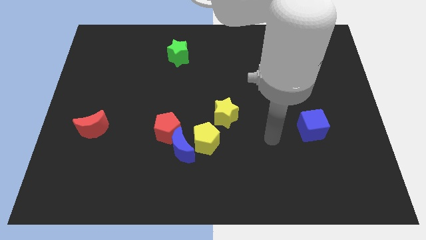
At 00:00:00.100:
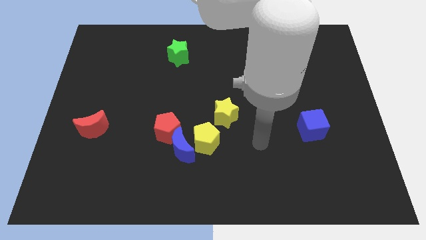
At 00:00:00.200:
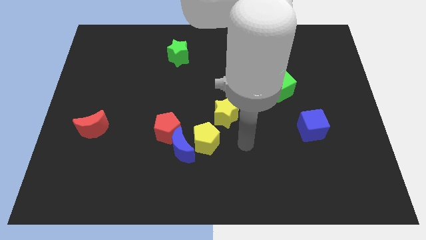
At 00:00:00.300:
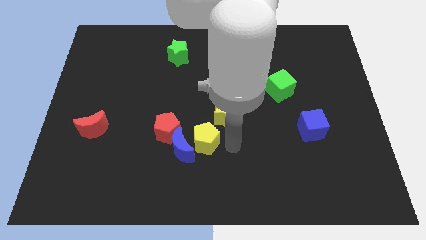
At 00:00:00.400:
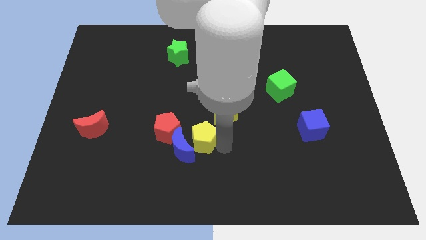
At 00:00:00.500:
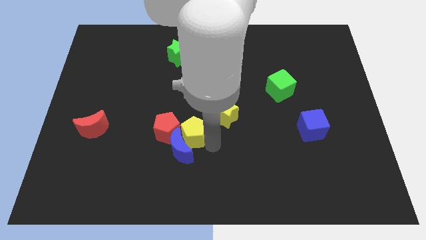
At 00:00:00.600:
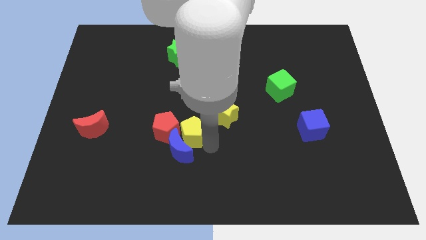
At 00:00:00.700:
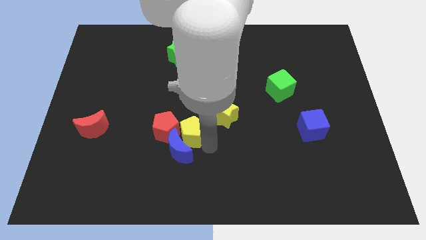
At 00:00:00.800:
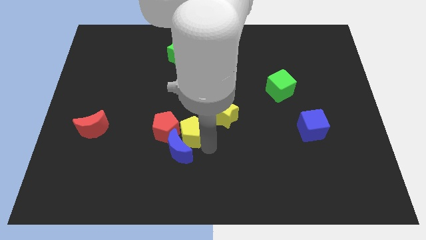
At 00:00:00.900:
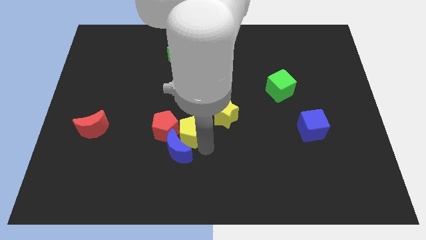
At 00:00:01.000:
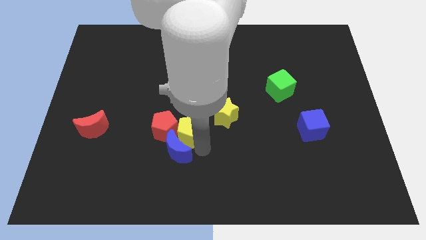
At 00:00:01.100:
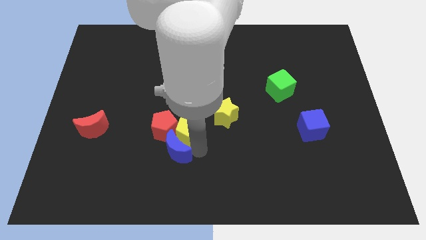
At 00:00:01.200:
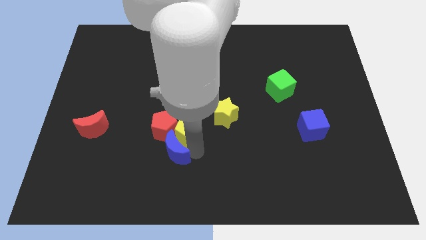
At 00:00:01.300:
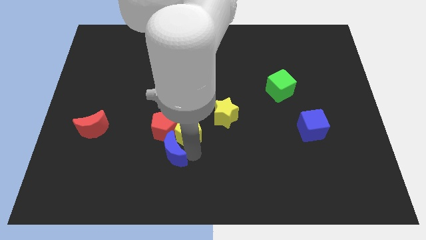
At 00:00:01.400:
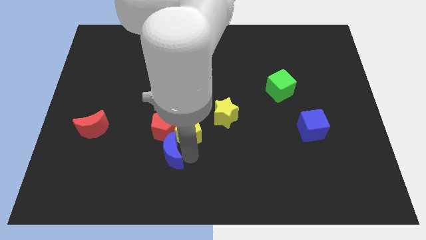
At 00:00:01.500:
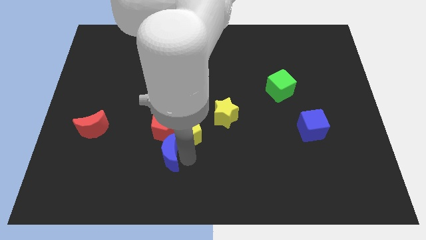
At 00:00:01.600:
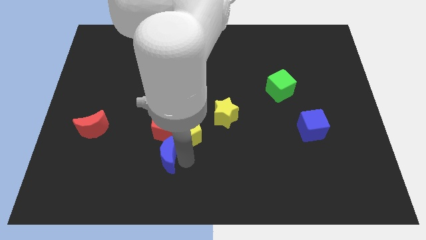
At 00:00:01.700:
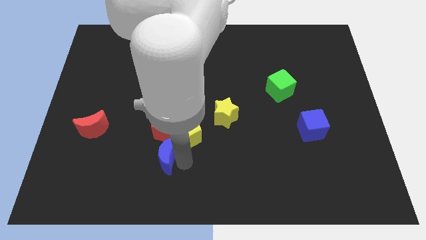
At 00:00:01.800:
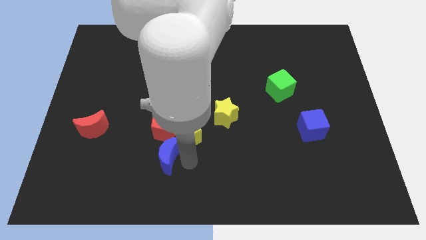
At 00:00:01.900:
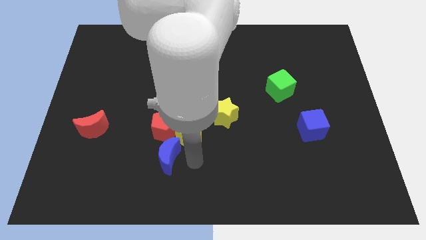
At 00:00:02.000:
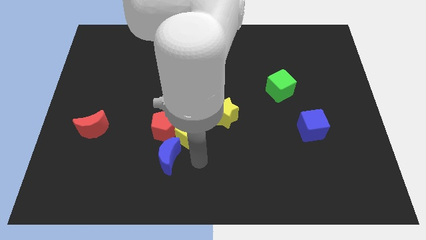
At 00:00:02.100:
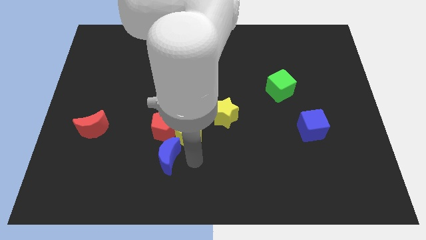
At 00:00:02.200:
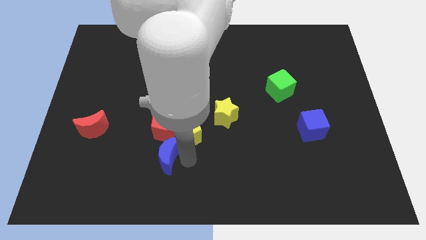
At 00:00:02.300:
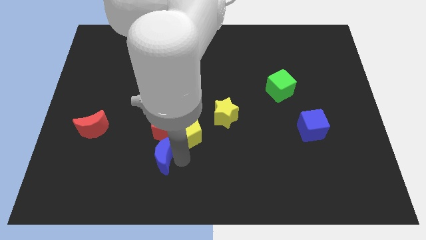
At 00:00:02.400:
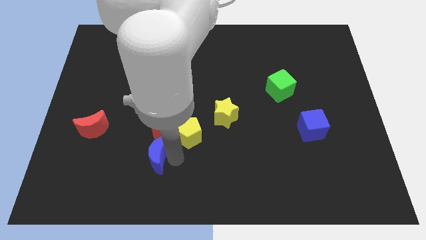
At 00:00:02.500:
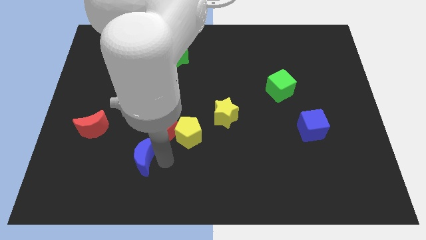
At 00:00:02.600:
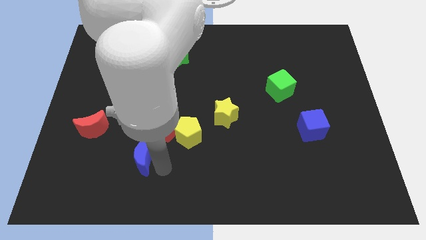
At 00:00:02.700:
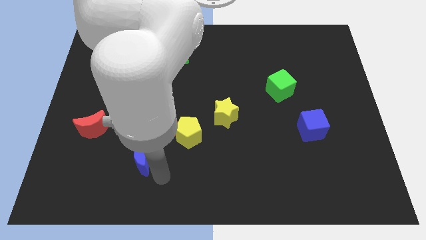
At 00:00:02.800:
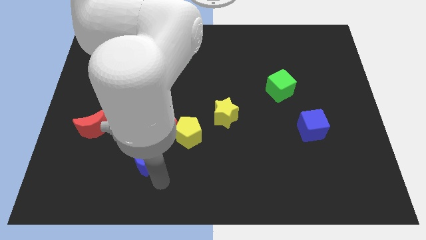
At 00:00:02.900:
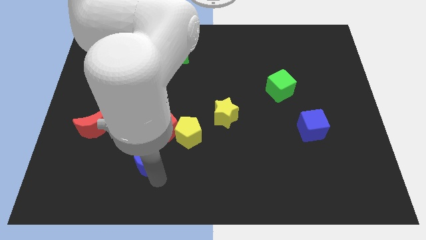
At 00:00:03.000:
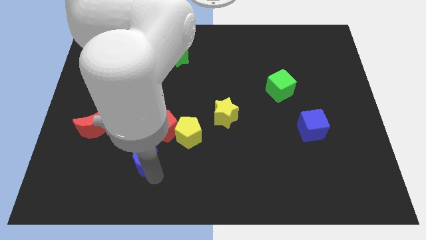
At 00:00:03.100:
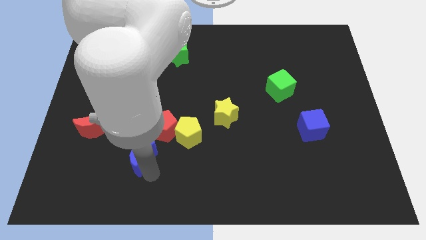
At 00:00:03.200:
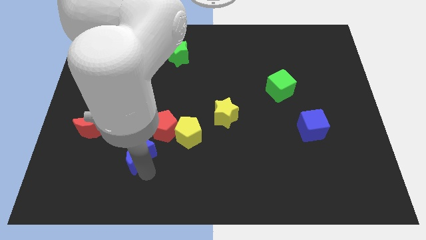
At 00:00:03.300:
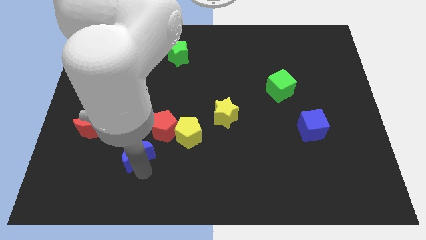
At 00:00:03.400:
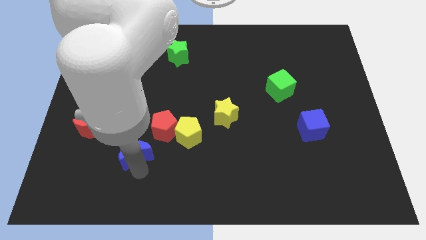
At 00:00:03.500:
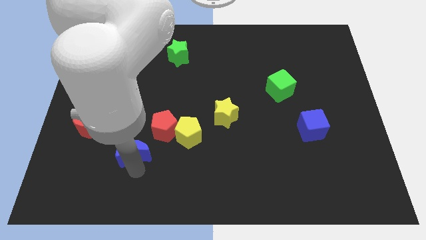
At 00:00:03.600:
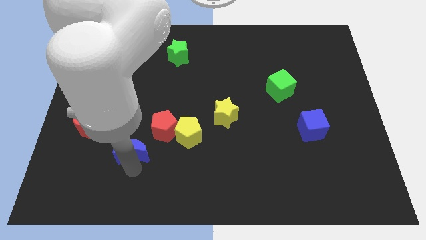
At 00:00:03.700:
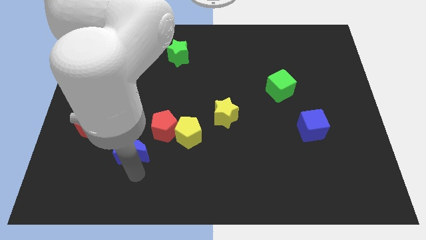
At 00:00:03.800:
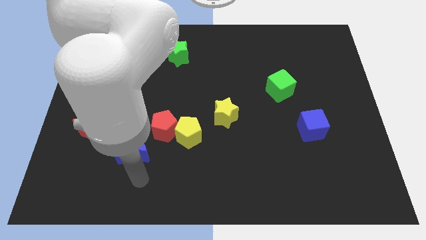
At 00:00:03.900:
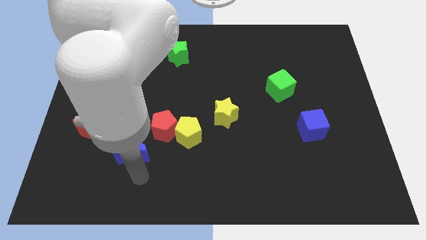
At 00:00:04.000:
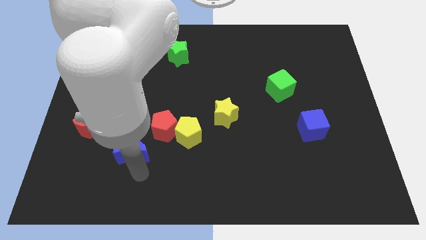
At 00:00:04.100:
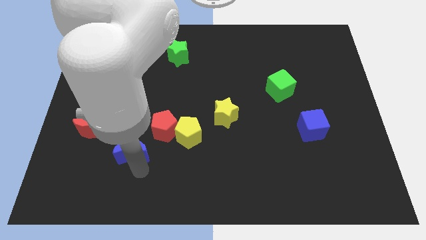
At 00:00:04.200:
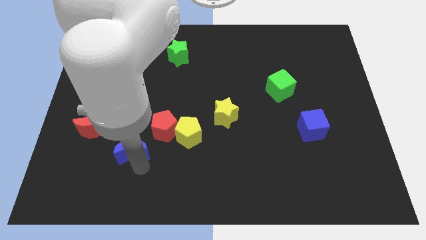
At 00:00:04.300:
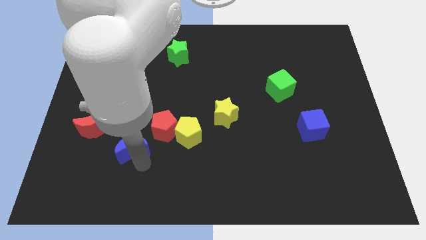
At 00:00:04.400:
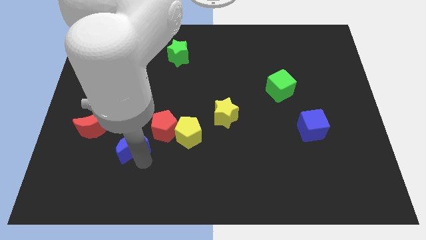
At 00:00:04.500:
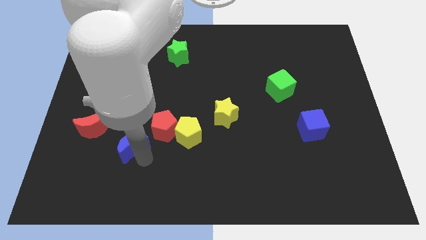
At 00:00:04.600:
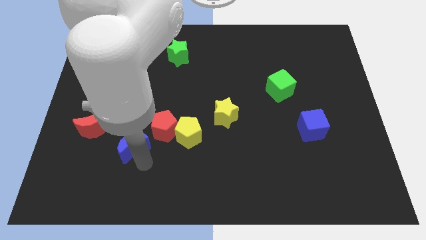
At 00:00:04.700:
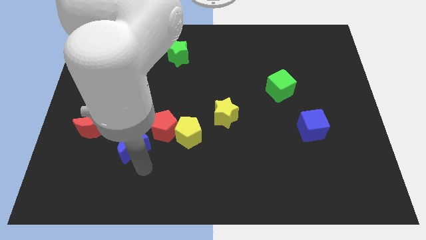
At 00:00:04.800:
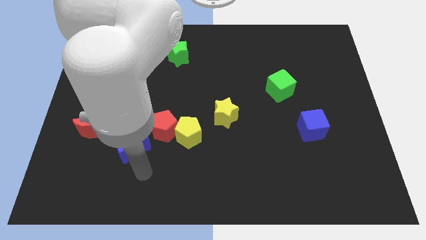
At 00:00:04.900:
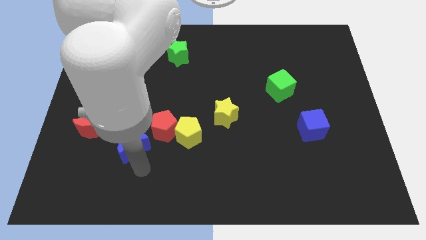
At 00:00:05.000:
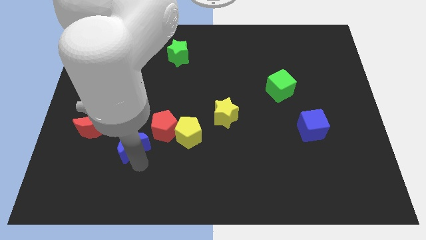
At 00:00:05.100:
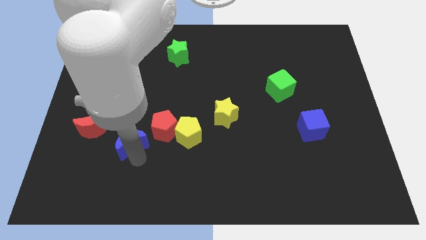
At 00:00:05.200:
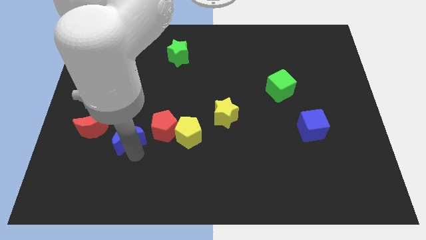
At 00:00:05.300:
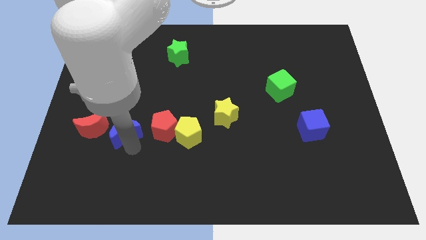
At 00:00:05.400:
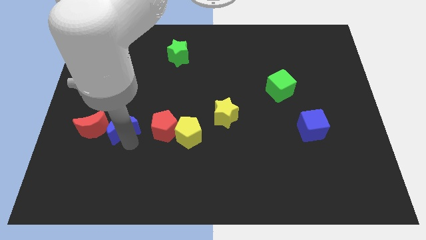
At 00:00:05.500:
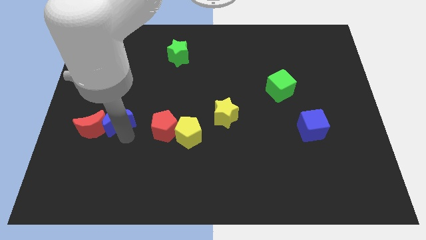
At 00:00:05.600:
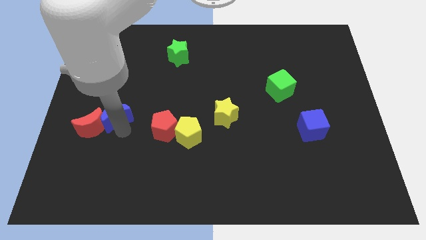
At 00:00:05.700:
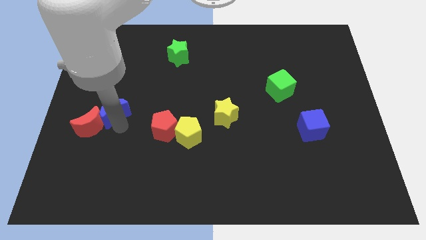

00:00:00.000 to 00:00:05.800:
put the blue moon above the red moon

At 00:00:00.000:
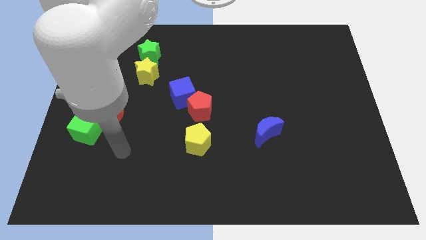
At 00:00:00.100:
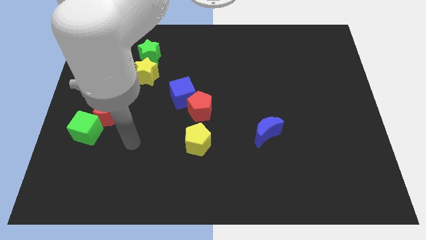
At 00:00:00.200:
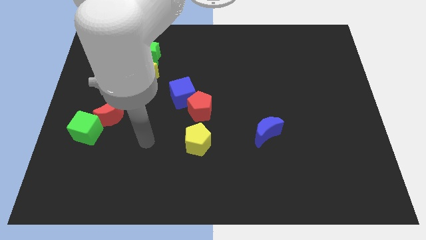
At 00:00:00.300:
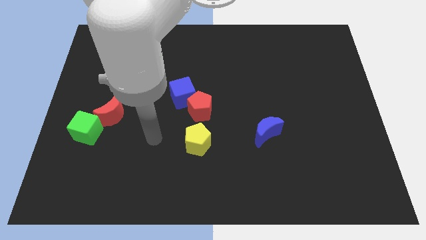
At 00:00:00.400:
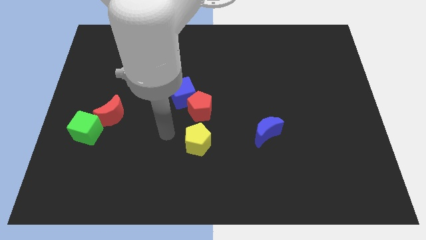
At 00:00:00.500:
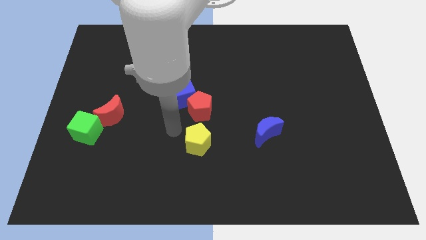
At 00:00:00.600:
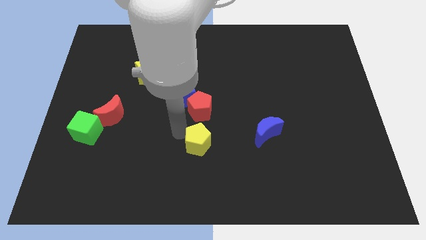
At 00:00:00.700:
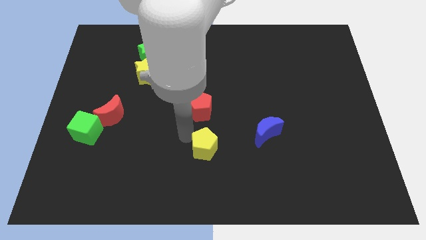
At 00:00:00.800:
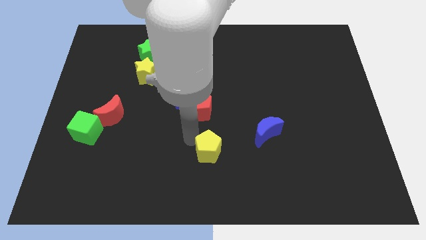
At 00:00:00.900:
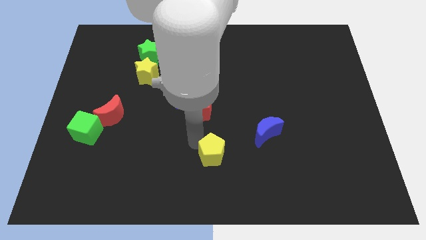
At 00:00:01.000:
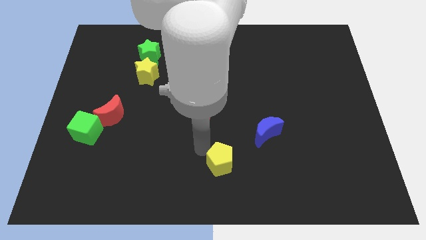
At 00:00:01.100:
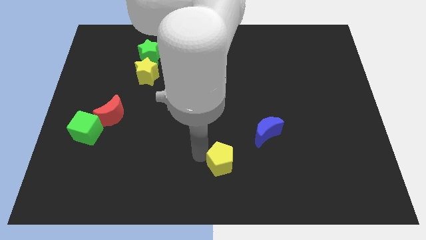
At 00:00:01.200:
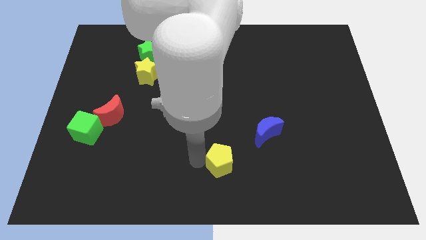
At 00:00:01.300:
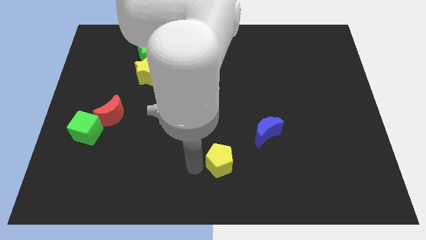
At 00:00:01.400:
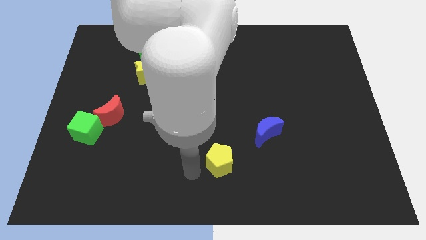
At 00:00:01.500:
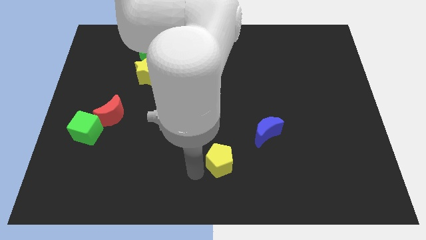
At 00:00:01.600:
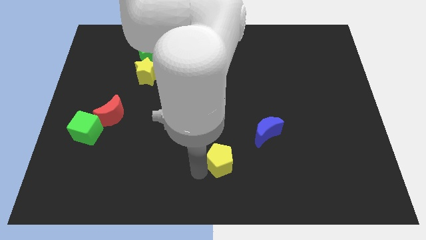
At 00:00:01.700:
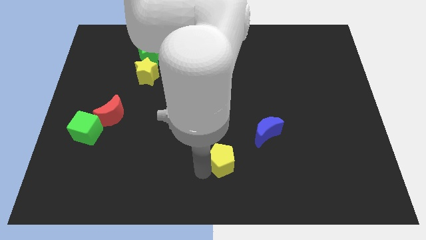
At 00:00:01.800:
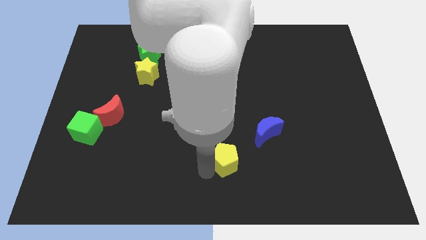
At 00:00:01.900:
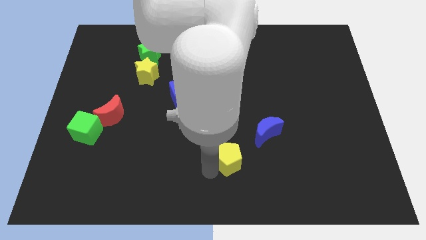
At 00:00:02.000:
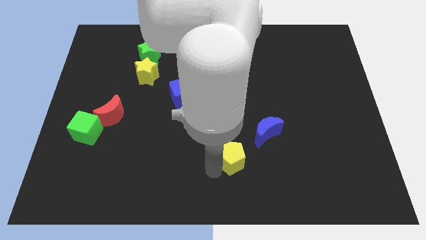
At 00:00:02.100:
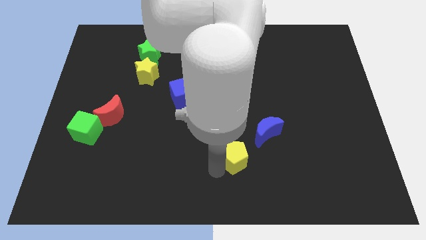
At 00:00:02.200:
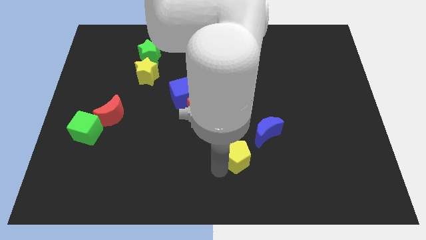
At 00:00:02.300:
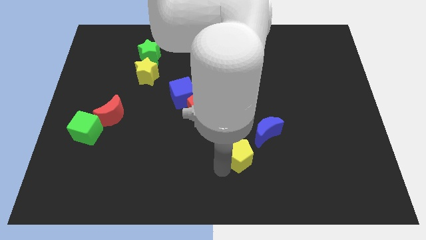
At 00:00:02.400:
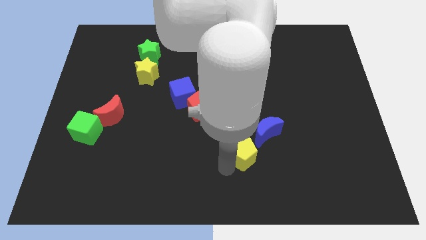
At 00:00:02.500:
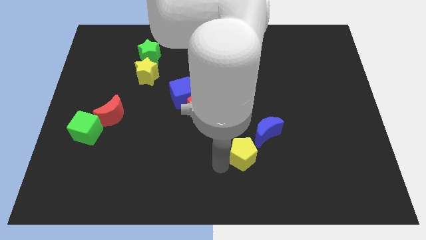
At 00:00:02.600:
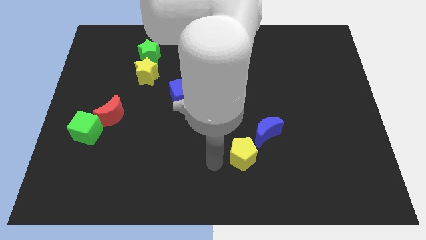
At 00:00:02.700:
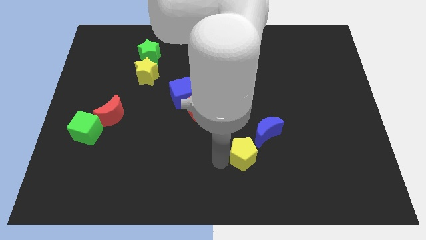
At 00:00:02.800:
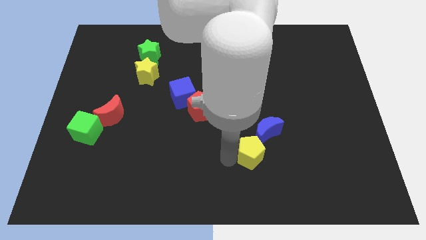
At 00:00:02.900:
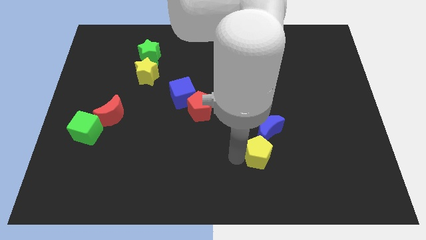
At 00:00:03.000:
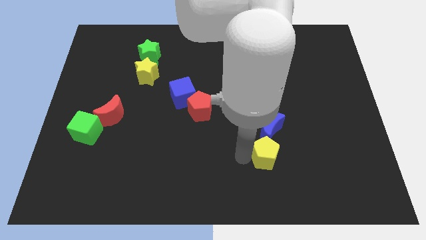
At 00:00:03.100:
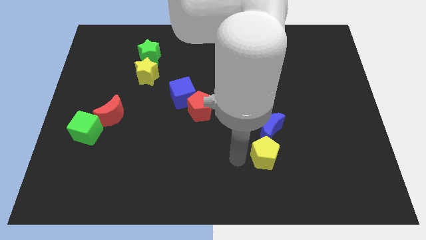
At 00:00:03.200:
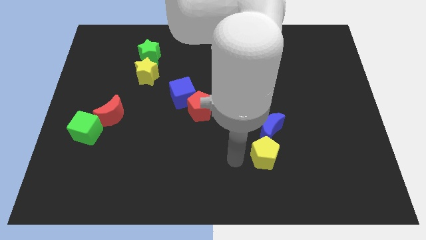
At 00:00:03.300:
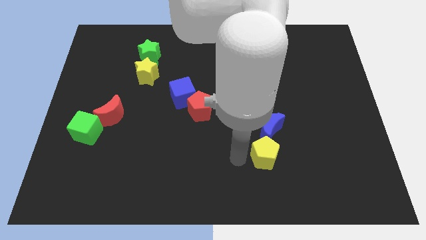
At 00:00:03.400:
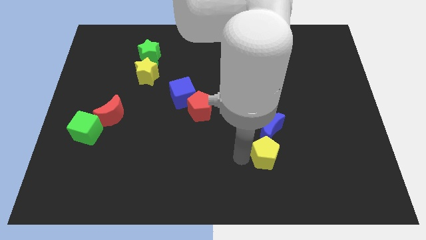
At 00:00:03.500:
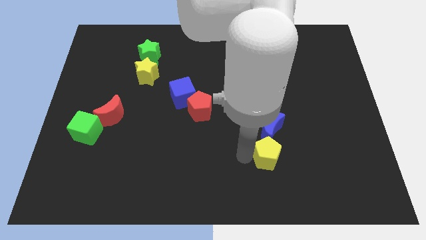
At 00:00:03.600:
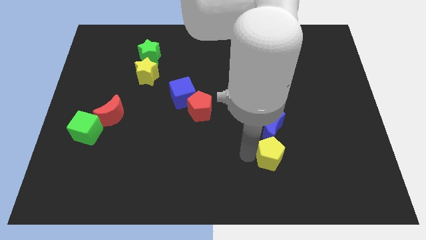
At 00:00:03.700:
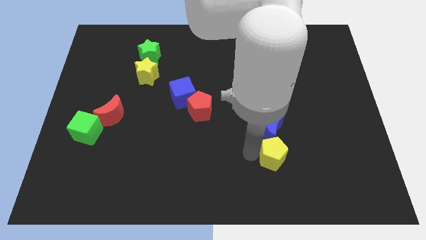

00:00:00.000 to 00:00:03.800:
push the yellow pentagon to the bottom right side of the blue moon
